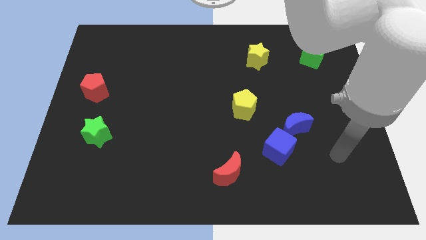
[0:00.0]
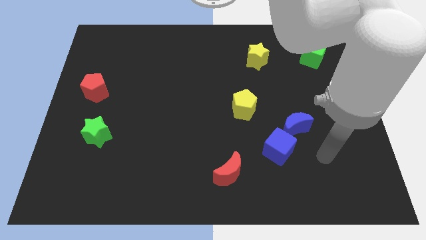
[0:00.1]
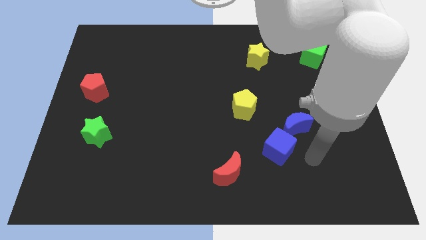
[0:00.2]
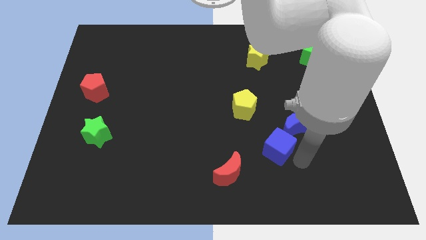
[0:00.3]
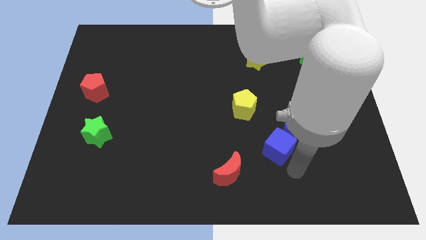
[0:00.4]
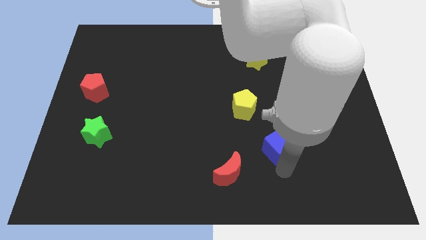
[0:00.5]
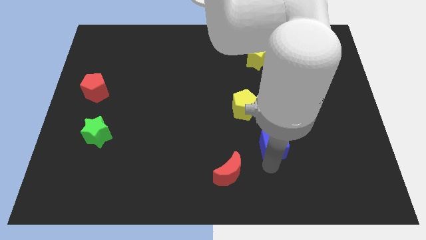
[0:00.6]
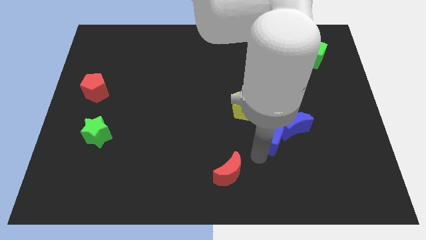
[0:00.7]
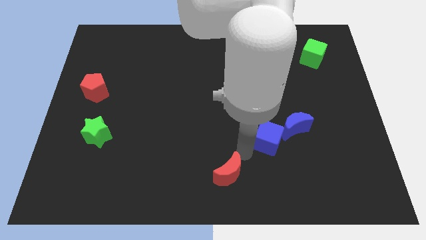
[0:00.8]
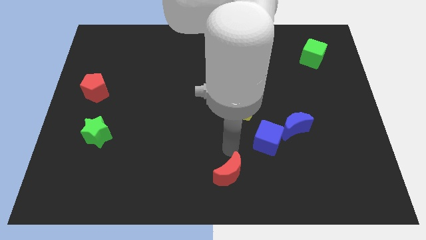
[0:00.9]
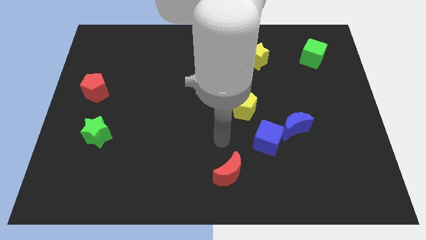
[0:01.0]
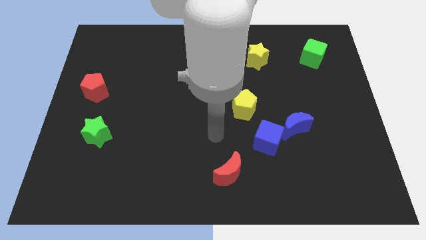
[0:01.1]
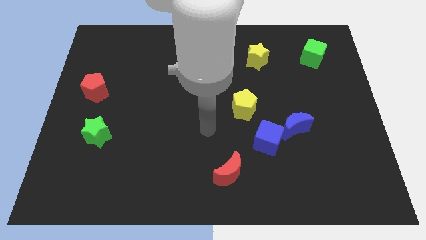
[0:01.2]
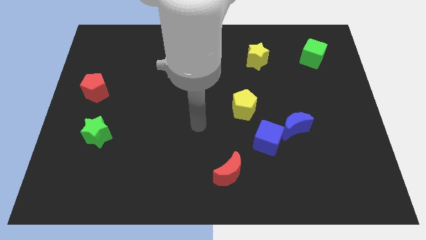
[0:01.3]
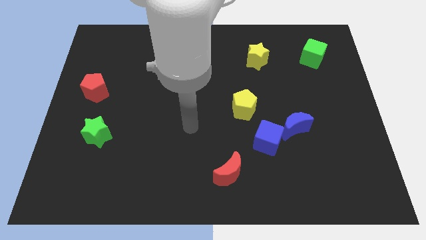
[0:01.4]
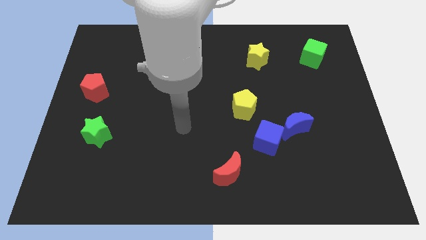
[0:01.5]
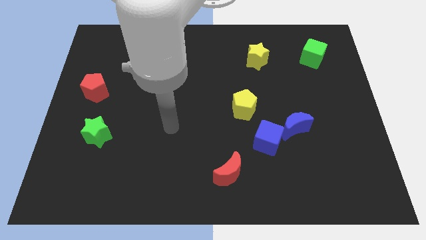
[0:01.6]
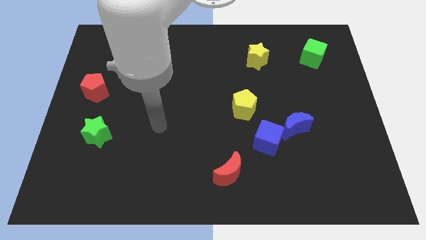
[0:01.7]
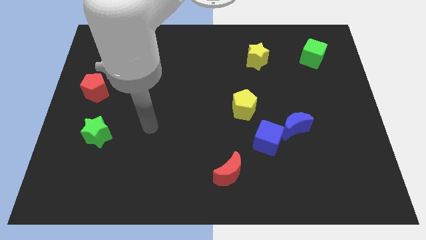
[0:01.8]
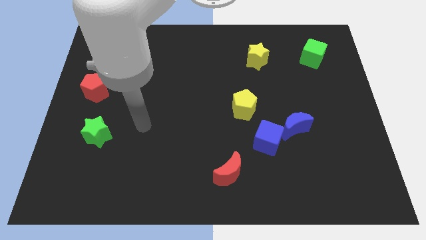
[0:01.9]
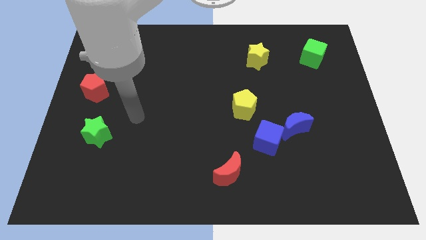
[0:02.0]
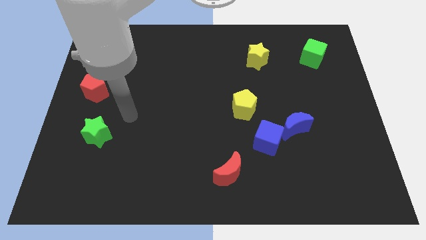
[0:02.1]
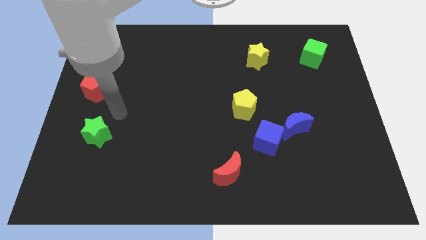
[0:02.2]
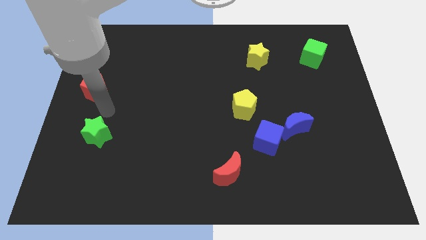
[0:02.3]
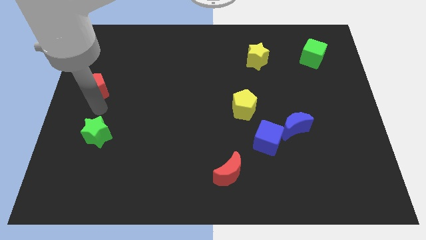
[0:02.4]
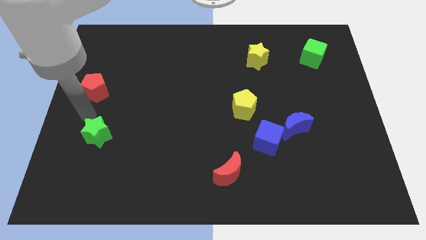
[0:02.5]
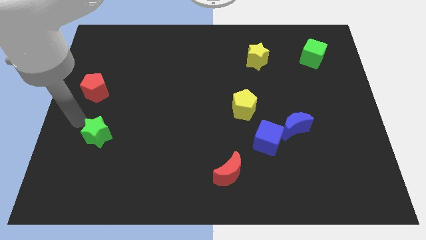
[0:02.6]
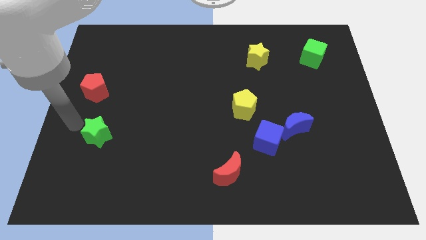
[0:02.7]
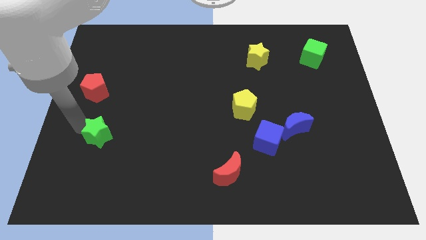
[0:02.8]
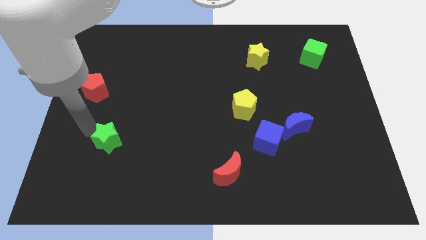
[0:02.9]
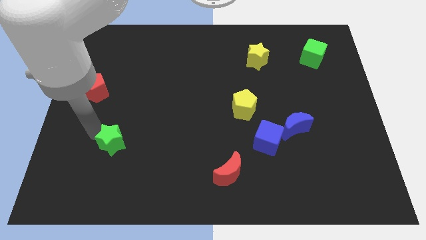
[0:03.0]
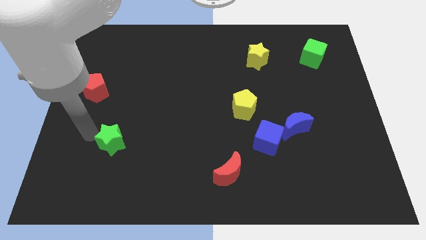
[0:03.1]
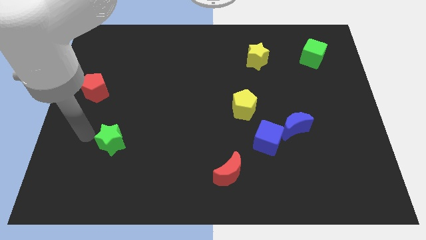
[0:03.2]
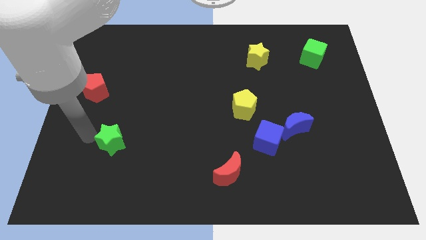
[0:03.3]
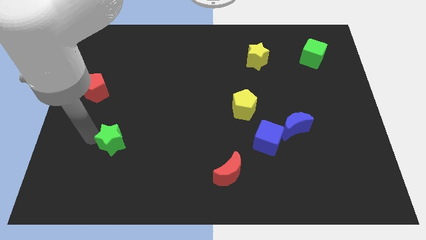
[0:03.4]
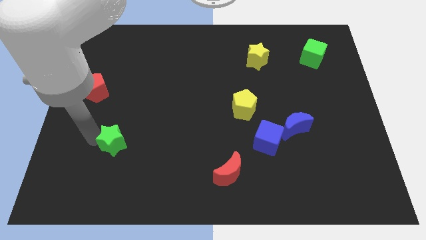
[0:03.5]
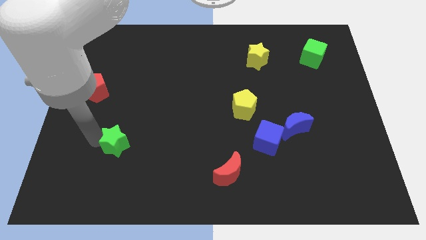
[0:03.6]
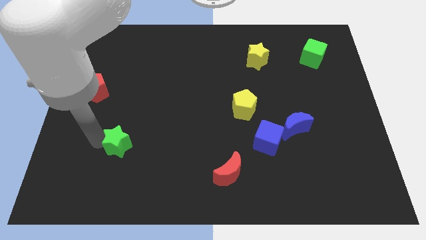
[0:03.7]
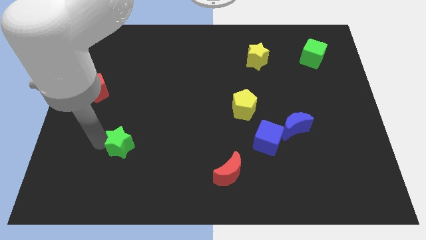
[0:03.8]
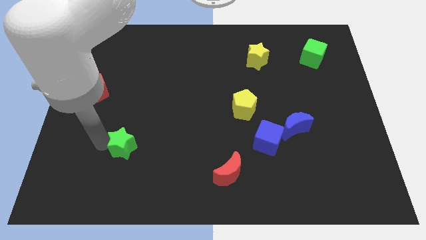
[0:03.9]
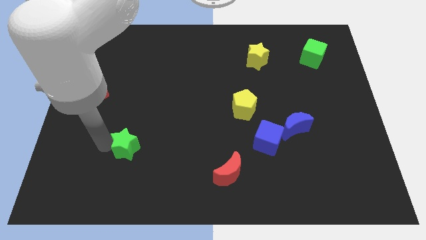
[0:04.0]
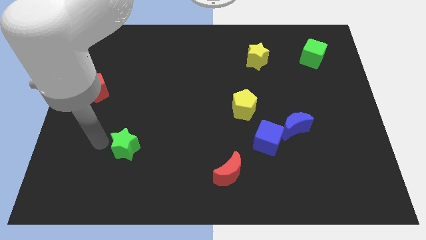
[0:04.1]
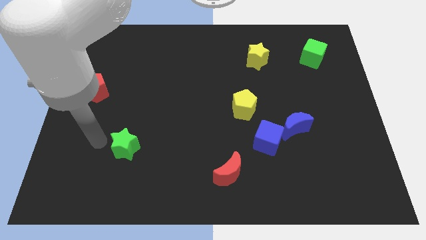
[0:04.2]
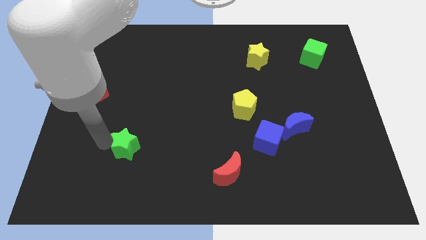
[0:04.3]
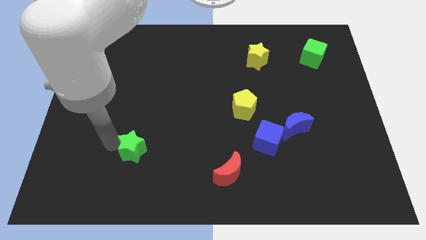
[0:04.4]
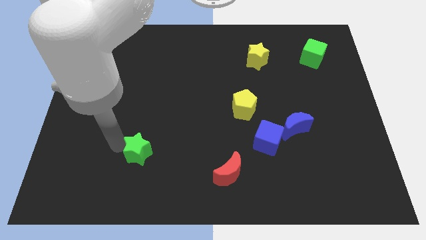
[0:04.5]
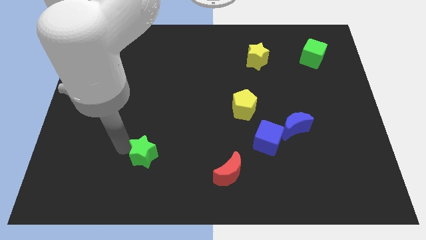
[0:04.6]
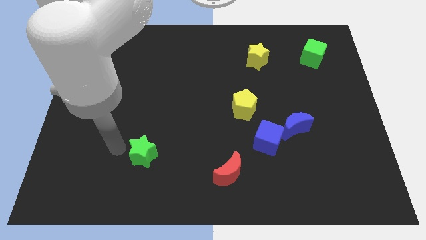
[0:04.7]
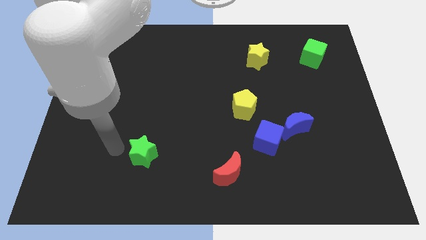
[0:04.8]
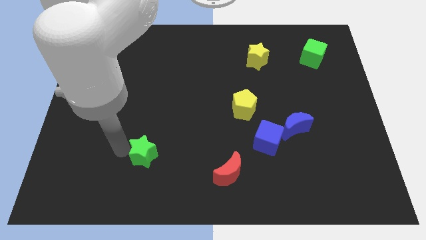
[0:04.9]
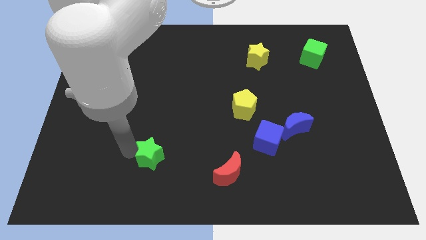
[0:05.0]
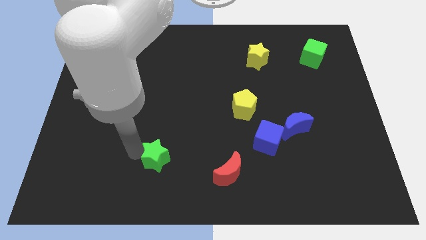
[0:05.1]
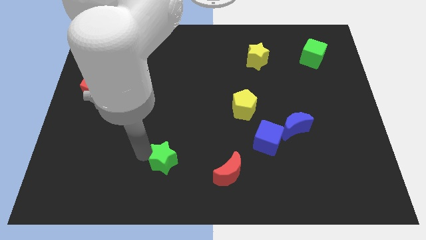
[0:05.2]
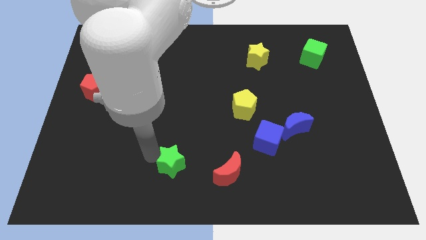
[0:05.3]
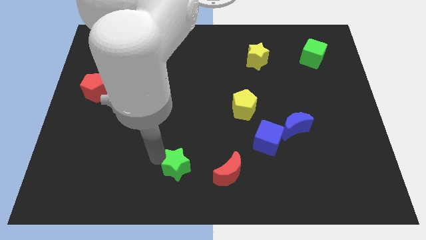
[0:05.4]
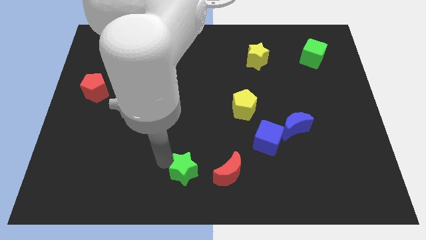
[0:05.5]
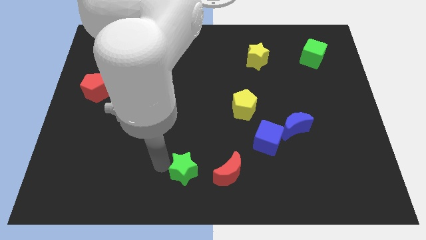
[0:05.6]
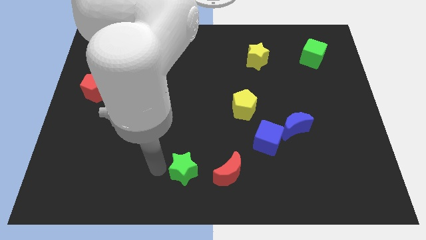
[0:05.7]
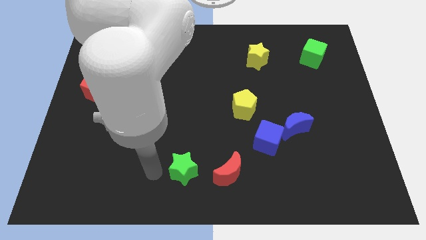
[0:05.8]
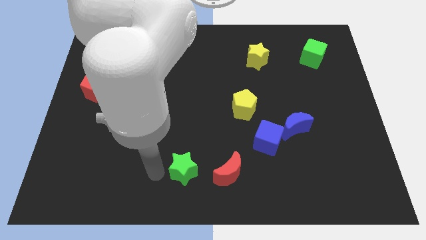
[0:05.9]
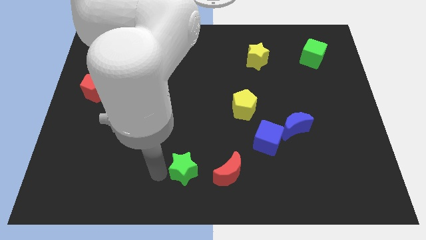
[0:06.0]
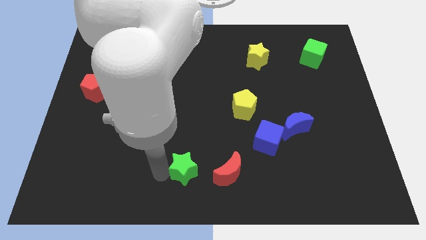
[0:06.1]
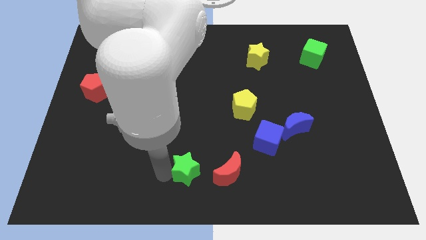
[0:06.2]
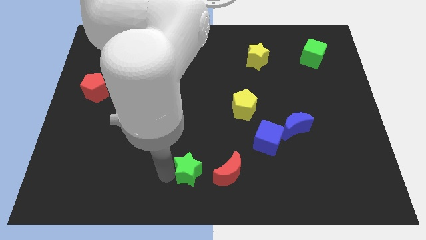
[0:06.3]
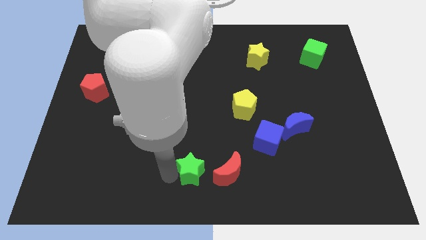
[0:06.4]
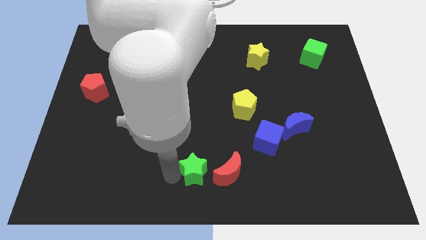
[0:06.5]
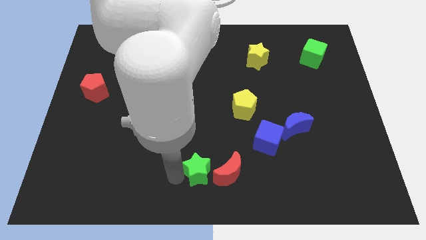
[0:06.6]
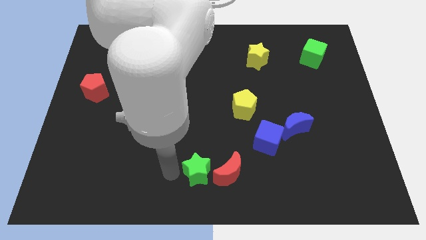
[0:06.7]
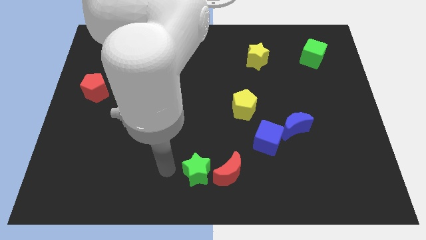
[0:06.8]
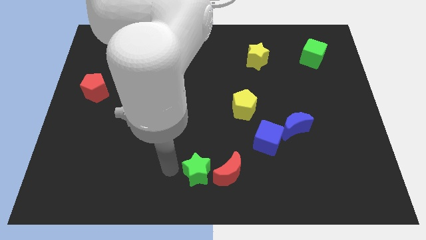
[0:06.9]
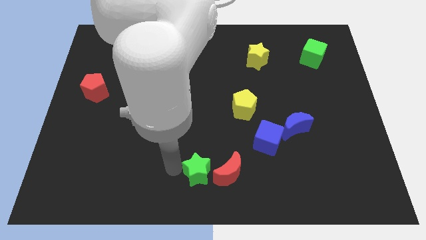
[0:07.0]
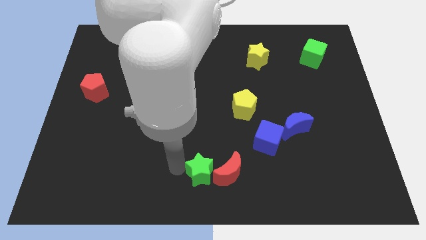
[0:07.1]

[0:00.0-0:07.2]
move the green star next to the red moon
